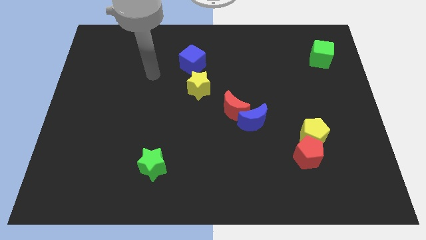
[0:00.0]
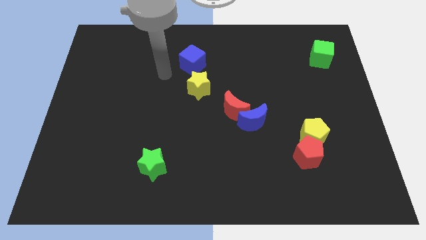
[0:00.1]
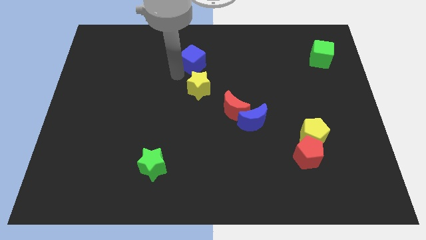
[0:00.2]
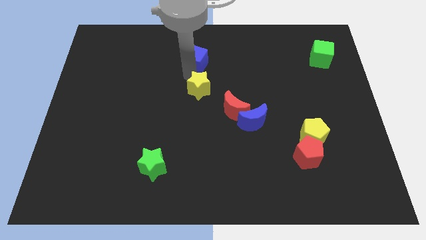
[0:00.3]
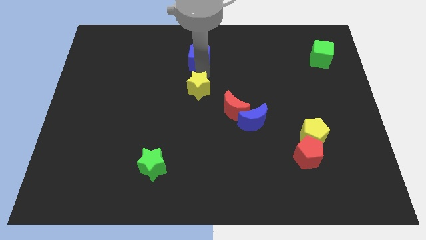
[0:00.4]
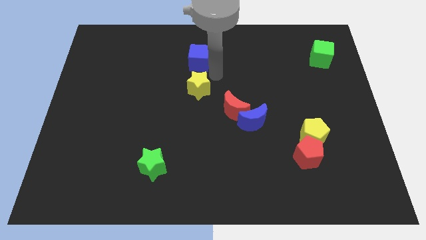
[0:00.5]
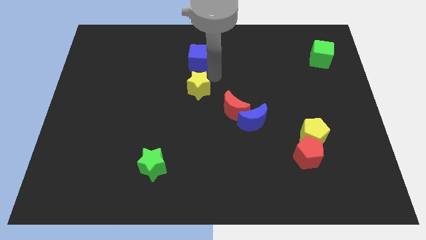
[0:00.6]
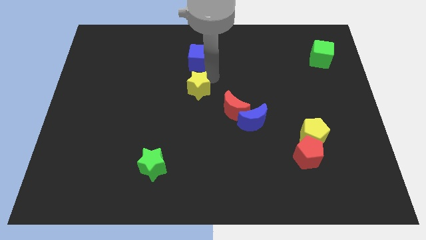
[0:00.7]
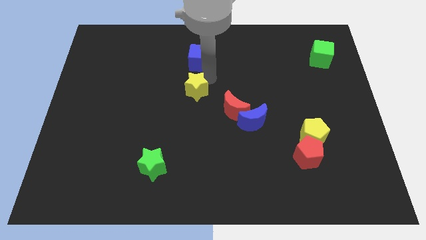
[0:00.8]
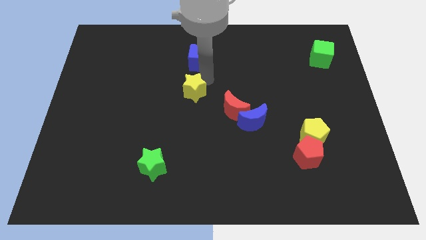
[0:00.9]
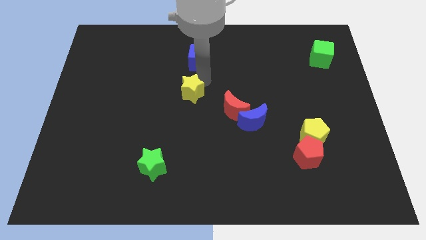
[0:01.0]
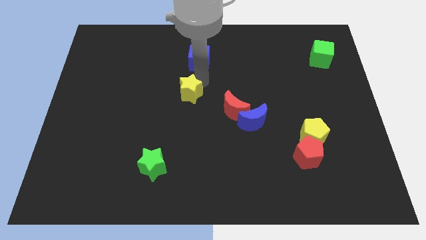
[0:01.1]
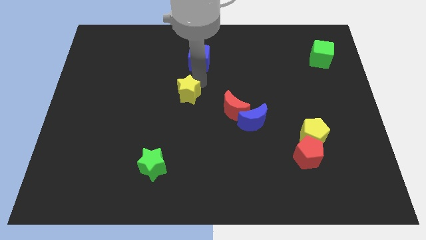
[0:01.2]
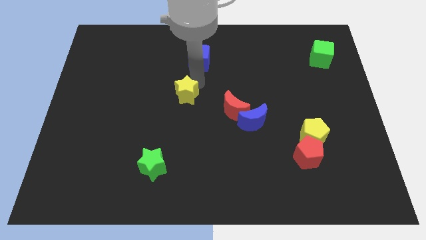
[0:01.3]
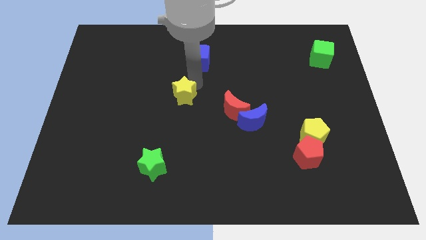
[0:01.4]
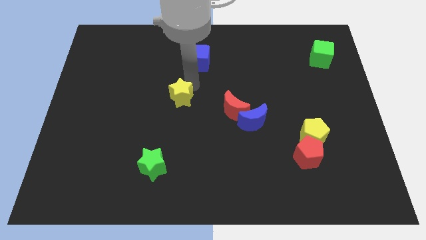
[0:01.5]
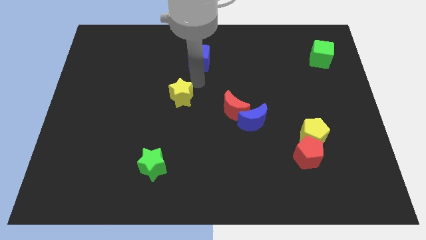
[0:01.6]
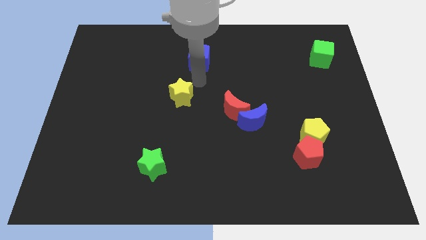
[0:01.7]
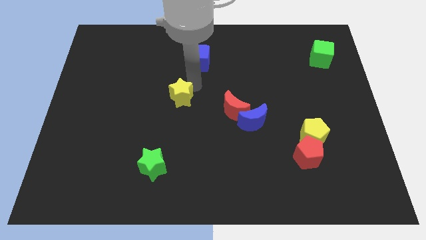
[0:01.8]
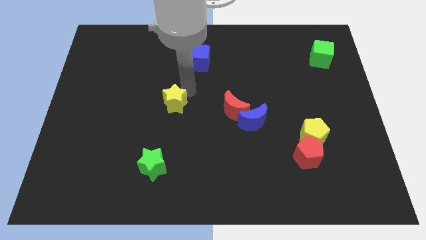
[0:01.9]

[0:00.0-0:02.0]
move the yellow star a little down and to the left

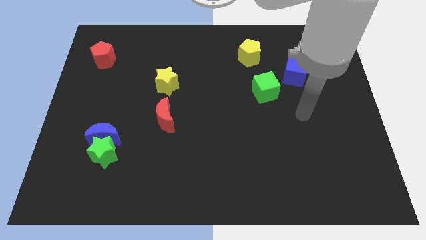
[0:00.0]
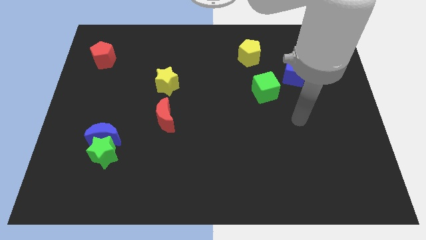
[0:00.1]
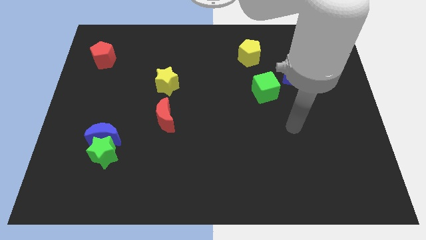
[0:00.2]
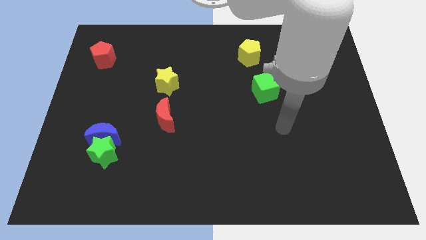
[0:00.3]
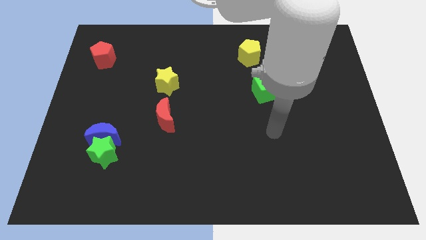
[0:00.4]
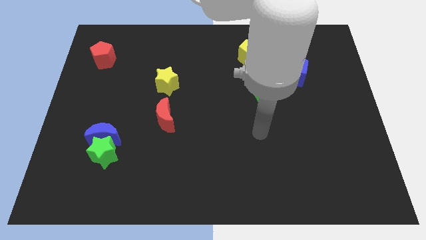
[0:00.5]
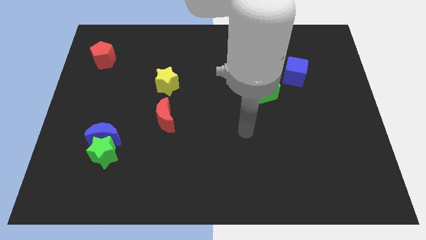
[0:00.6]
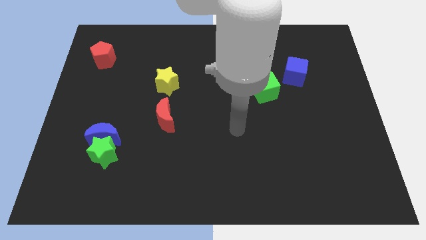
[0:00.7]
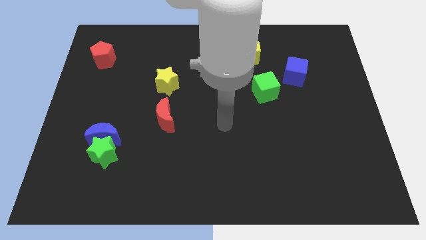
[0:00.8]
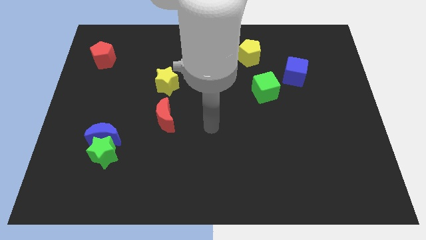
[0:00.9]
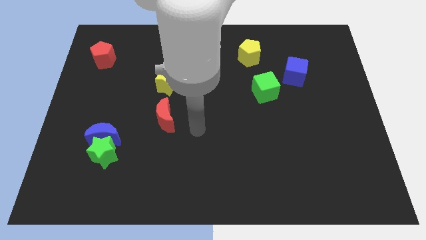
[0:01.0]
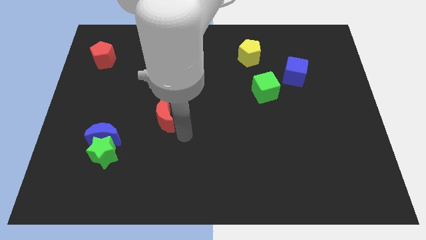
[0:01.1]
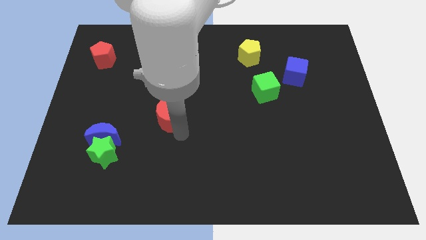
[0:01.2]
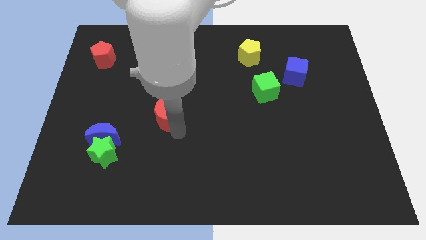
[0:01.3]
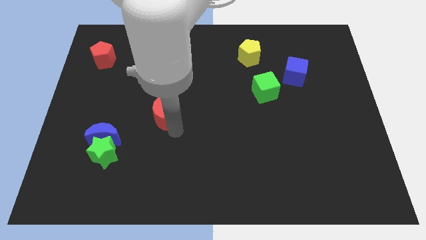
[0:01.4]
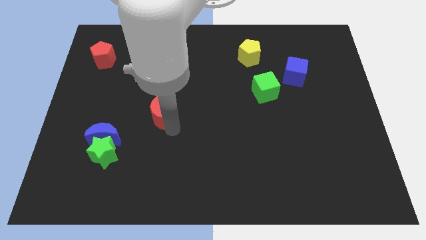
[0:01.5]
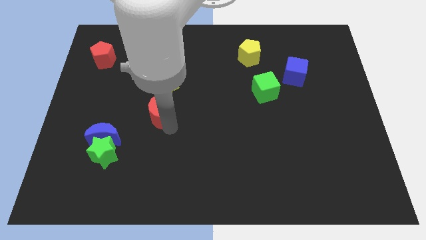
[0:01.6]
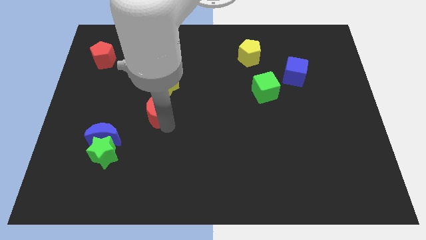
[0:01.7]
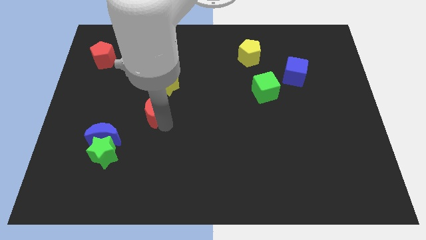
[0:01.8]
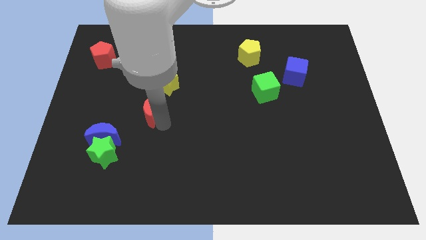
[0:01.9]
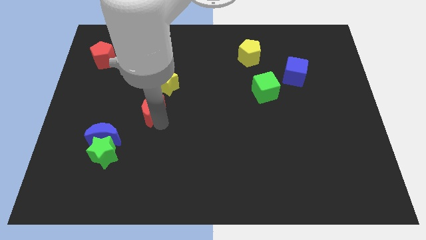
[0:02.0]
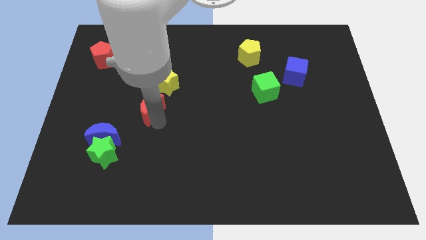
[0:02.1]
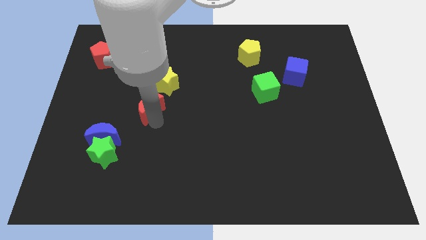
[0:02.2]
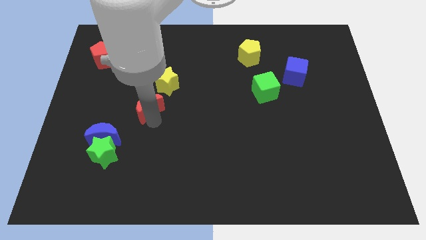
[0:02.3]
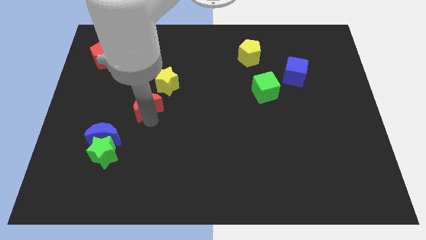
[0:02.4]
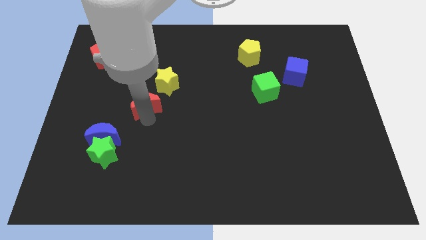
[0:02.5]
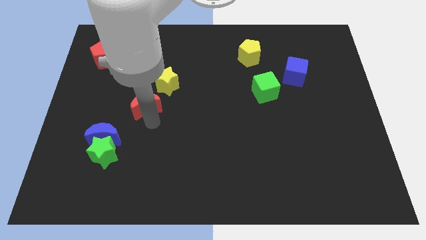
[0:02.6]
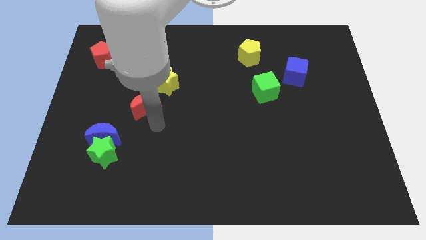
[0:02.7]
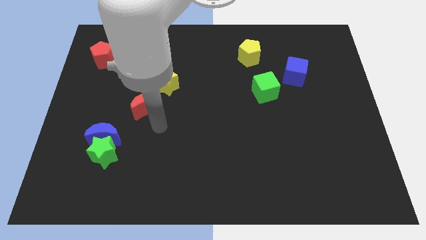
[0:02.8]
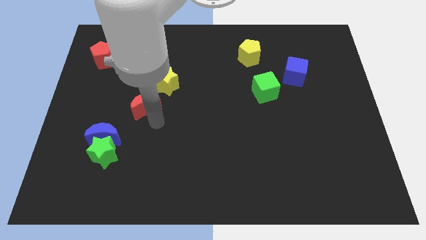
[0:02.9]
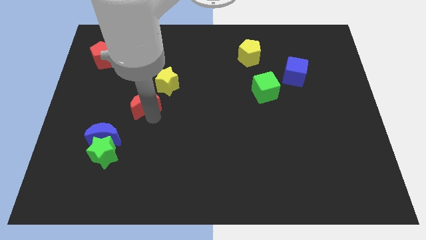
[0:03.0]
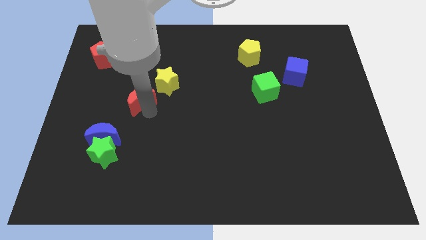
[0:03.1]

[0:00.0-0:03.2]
move the red moon a bit diagonally upwards and left

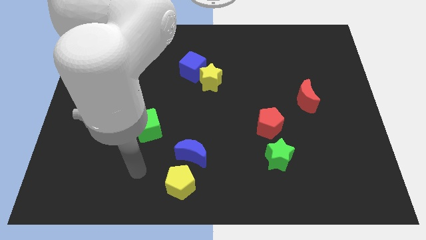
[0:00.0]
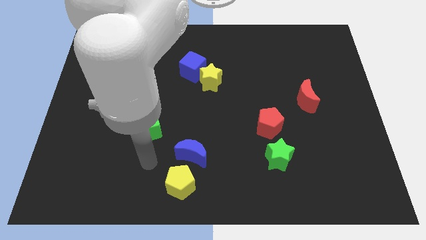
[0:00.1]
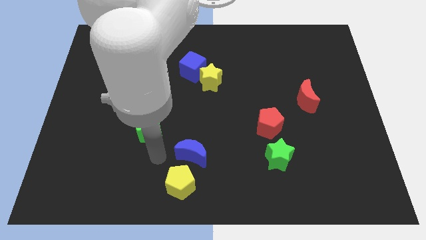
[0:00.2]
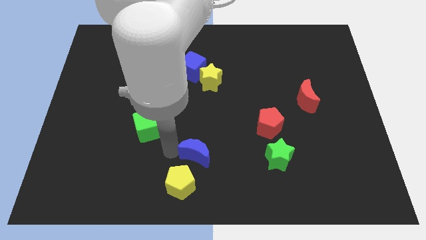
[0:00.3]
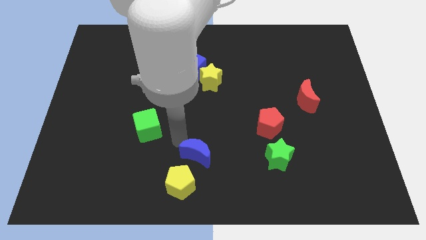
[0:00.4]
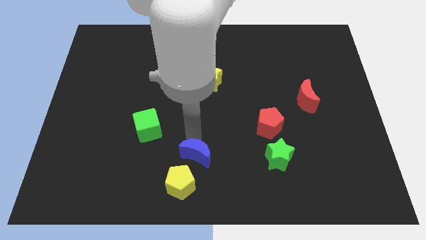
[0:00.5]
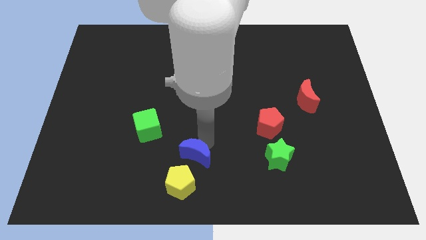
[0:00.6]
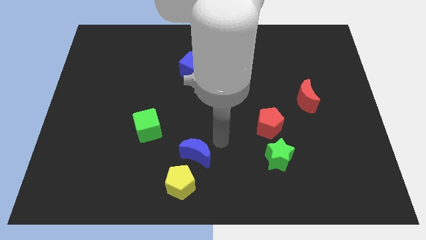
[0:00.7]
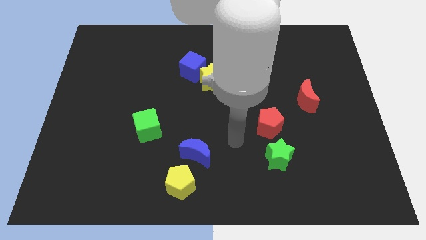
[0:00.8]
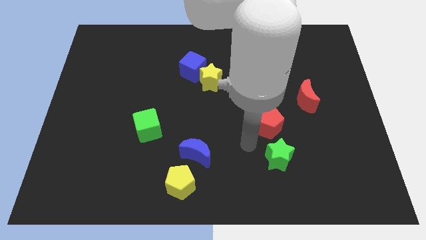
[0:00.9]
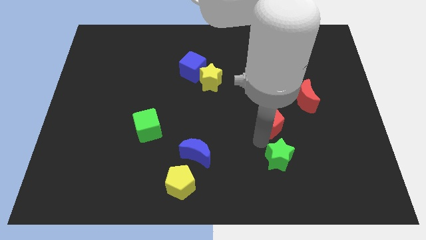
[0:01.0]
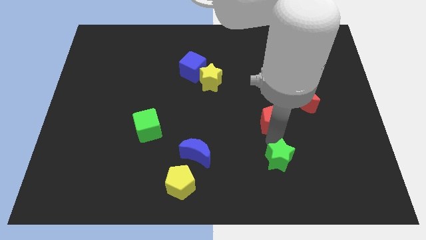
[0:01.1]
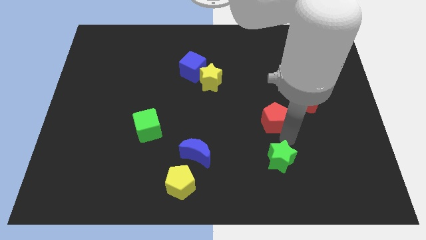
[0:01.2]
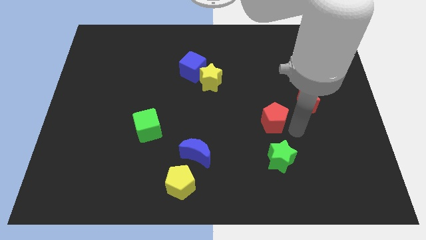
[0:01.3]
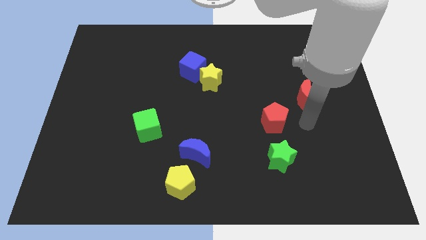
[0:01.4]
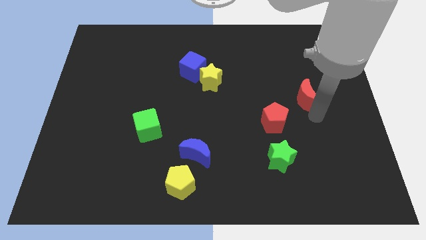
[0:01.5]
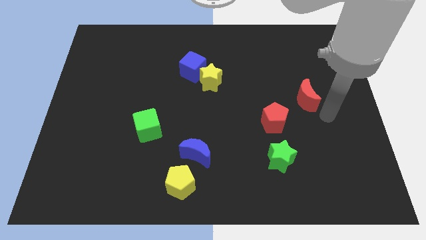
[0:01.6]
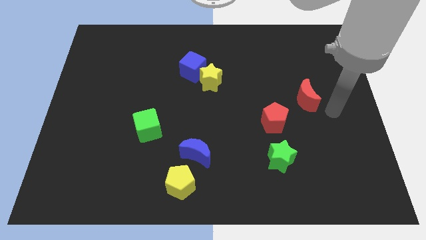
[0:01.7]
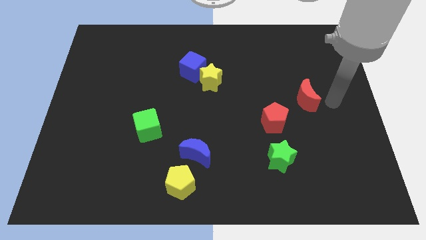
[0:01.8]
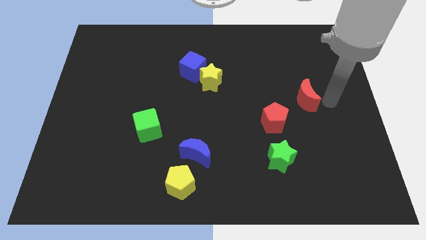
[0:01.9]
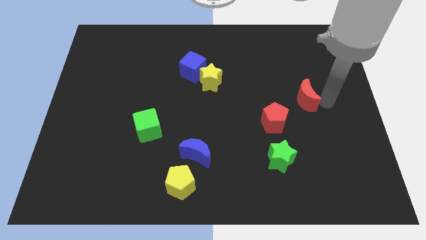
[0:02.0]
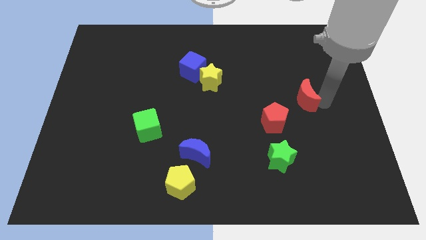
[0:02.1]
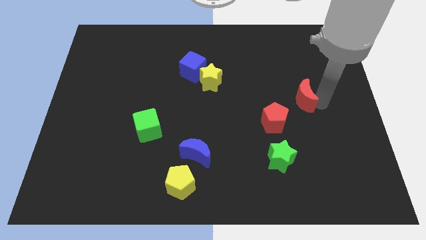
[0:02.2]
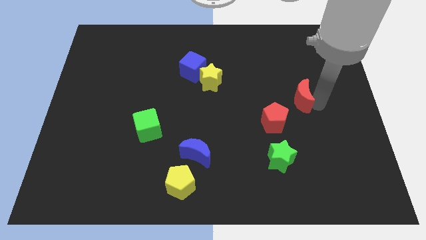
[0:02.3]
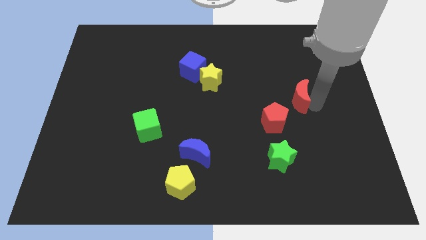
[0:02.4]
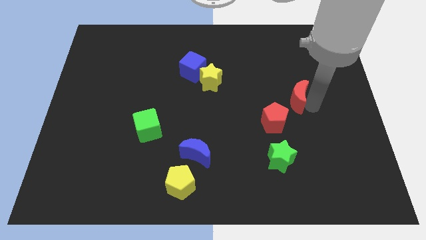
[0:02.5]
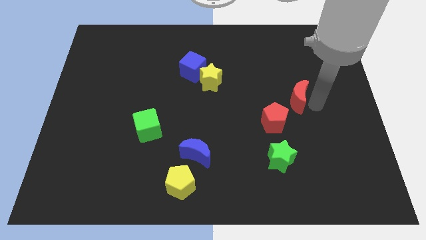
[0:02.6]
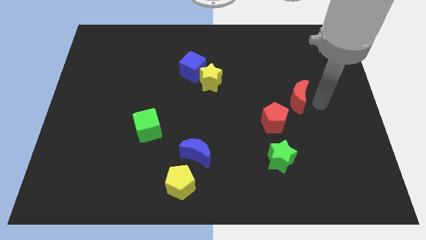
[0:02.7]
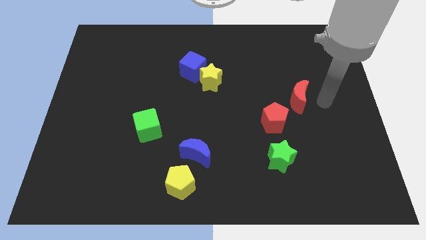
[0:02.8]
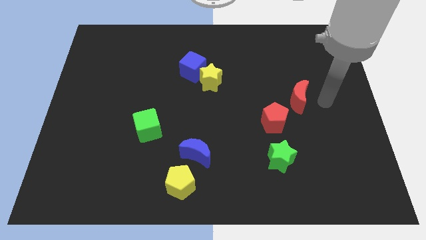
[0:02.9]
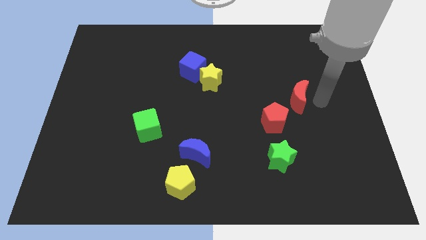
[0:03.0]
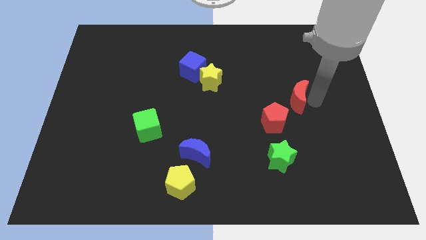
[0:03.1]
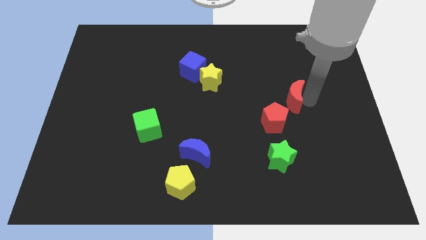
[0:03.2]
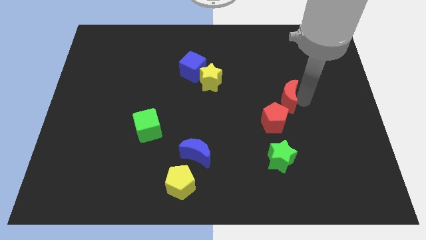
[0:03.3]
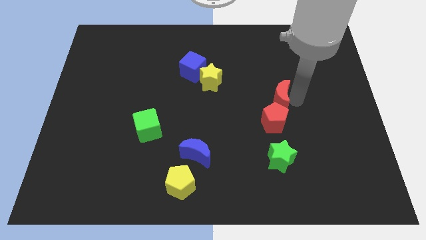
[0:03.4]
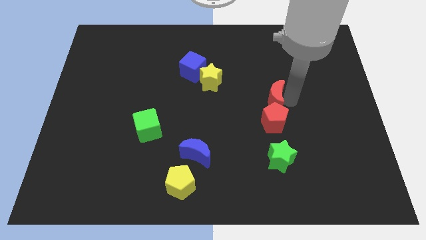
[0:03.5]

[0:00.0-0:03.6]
move the red moon to the left slightly
